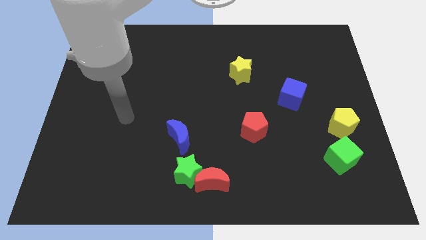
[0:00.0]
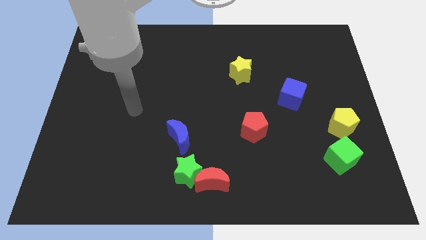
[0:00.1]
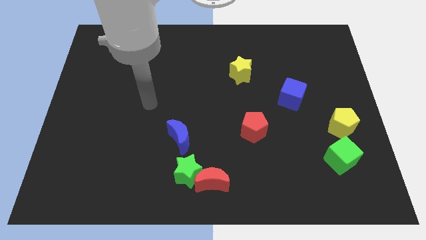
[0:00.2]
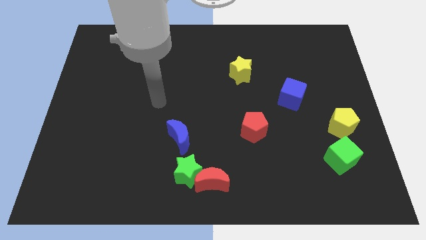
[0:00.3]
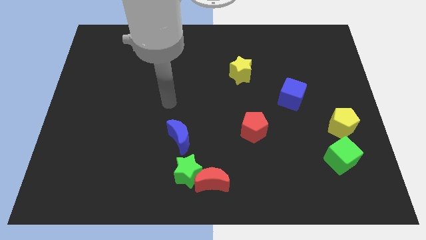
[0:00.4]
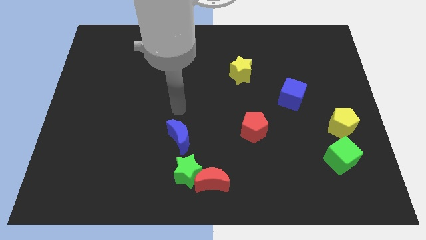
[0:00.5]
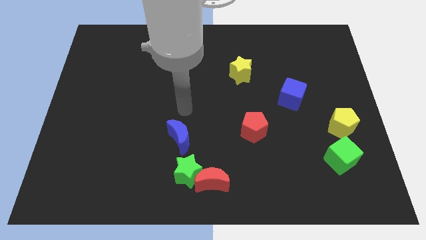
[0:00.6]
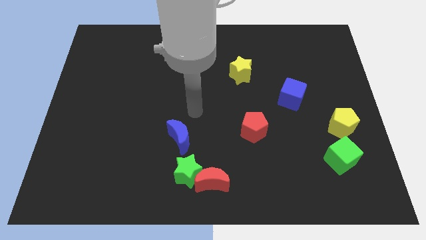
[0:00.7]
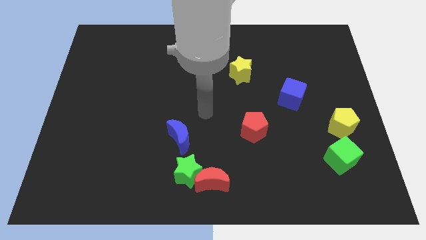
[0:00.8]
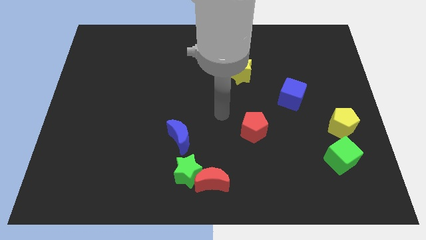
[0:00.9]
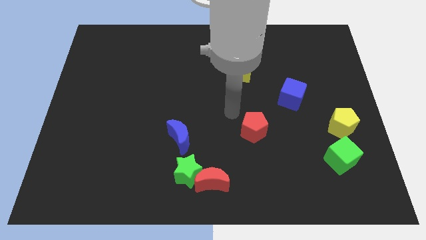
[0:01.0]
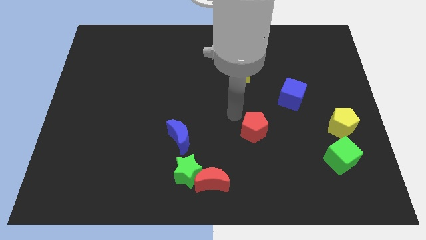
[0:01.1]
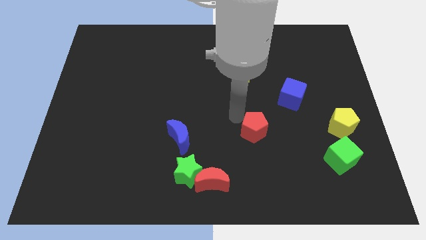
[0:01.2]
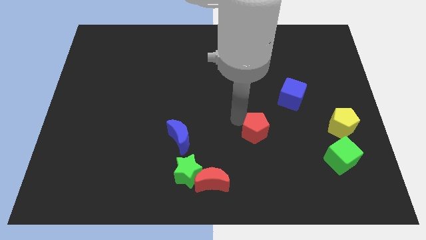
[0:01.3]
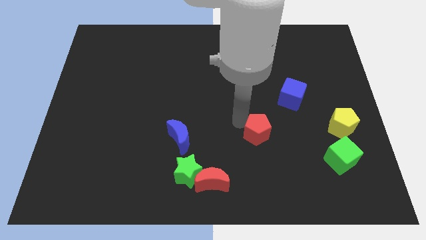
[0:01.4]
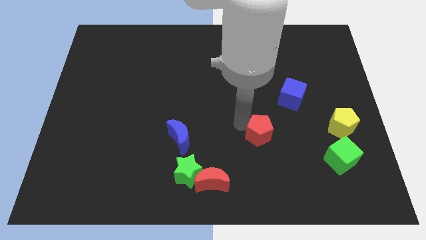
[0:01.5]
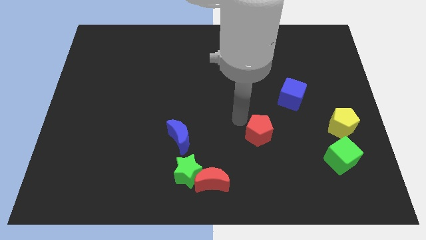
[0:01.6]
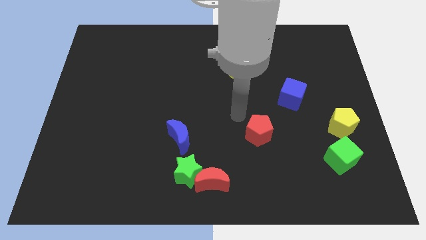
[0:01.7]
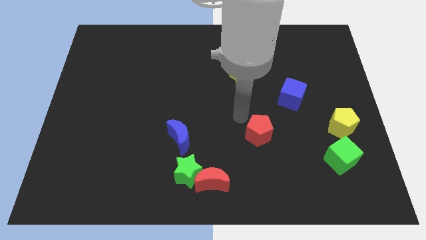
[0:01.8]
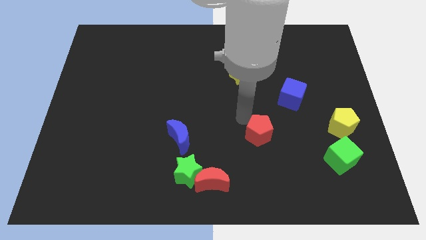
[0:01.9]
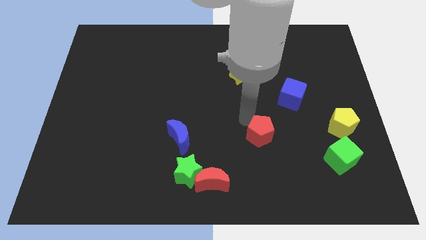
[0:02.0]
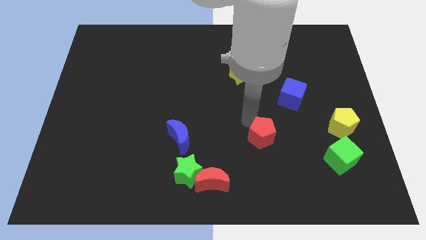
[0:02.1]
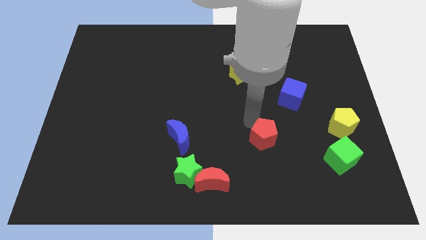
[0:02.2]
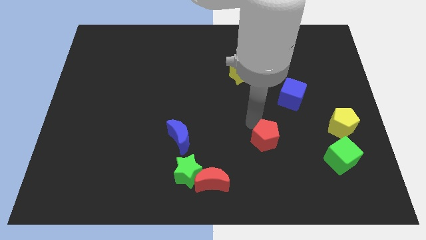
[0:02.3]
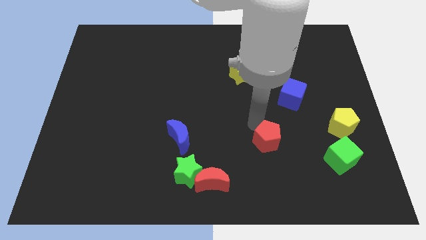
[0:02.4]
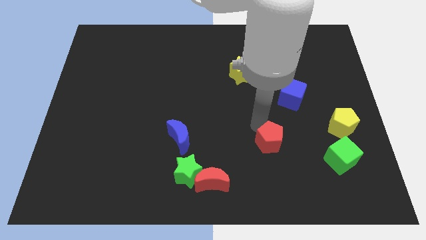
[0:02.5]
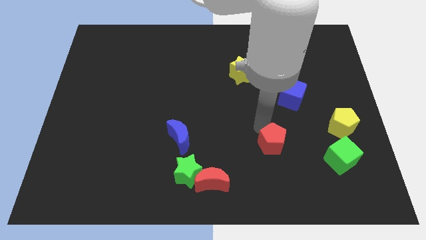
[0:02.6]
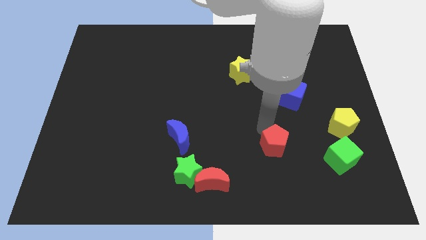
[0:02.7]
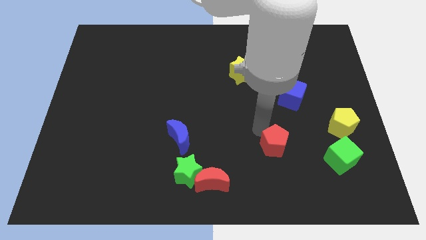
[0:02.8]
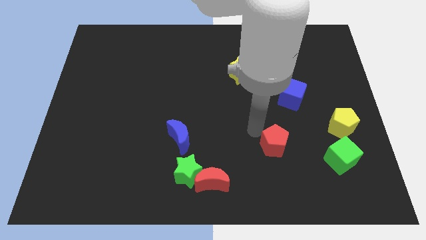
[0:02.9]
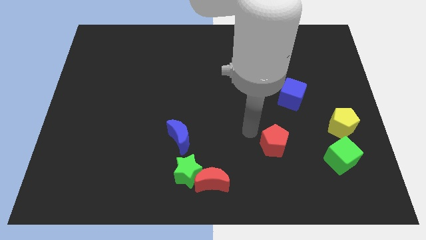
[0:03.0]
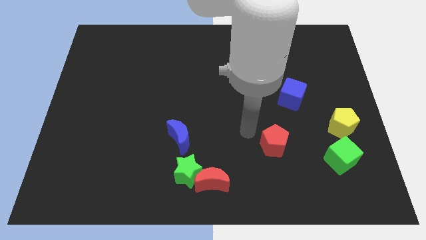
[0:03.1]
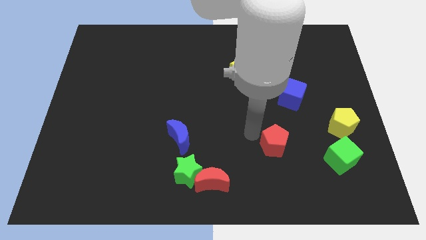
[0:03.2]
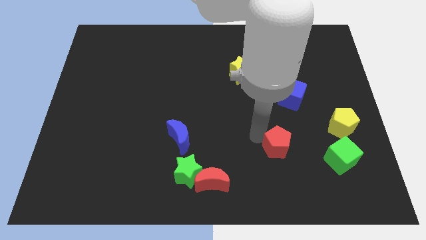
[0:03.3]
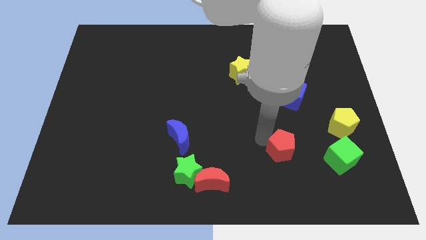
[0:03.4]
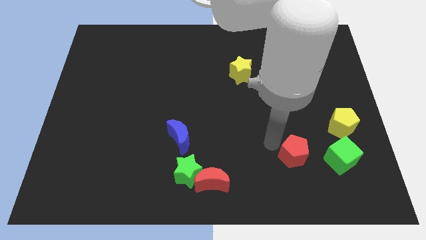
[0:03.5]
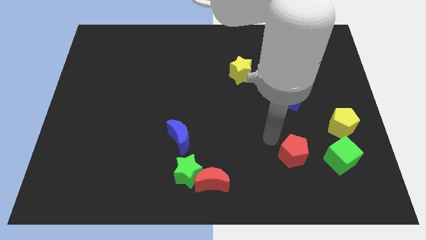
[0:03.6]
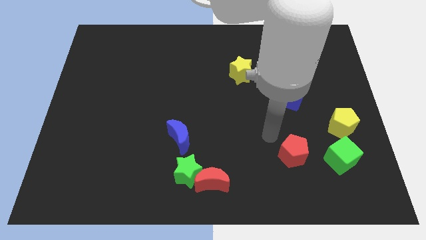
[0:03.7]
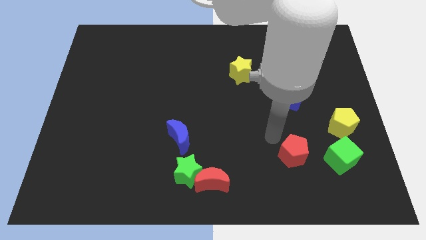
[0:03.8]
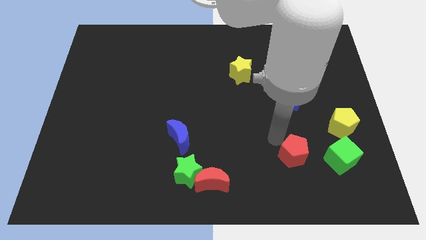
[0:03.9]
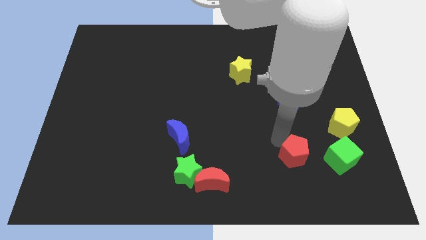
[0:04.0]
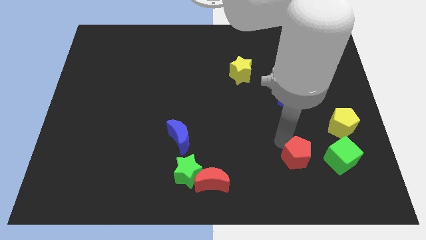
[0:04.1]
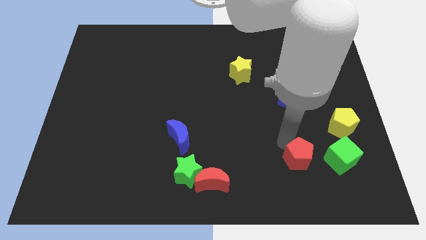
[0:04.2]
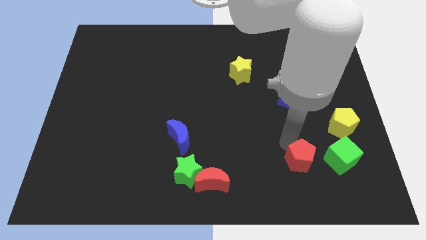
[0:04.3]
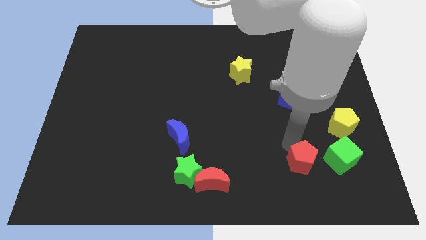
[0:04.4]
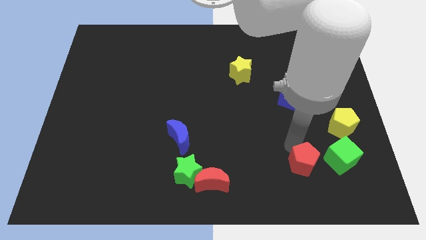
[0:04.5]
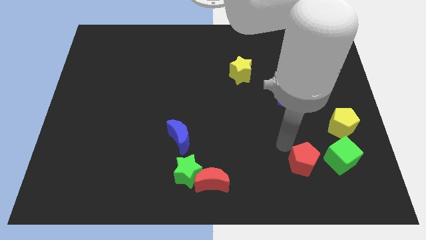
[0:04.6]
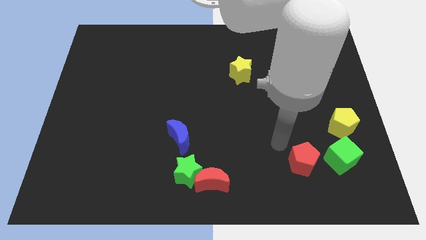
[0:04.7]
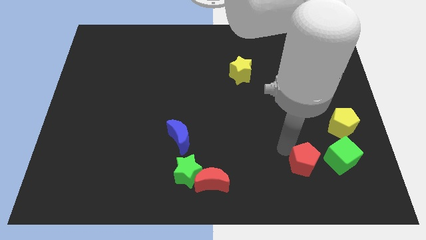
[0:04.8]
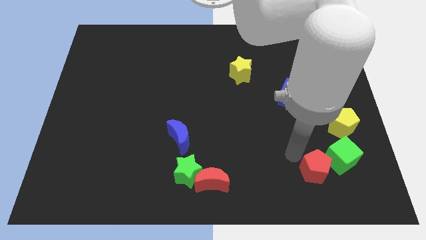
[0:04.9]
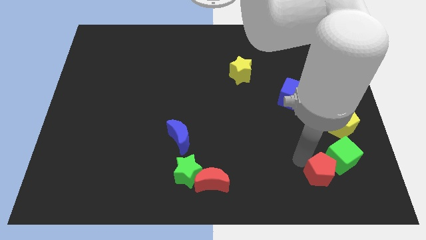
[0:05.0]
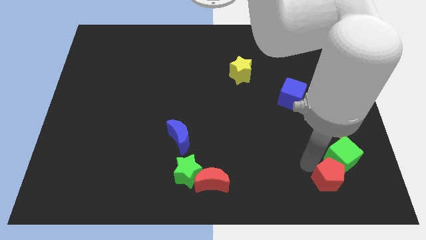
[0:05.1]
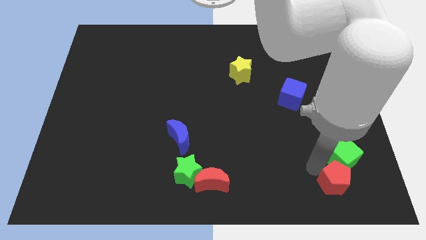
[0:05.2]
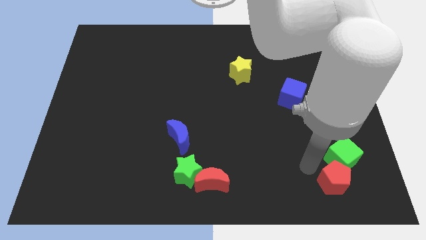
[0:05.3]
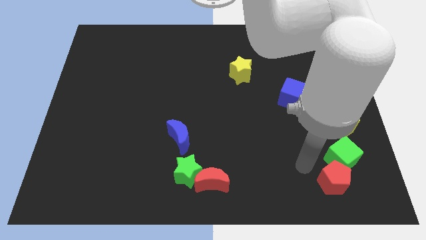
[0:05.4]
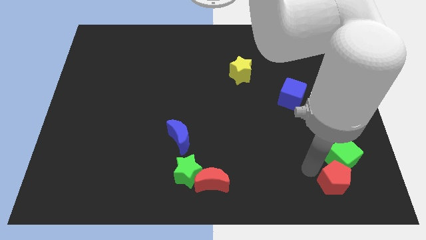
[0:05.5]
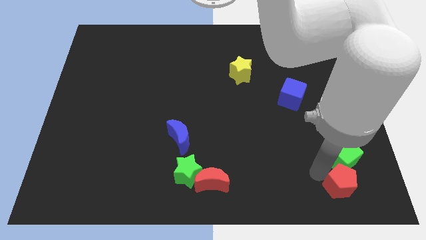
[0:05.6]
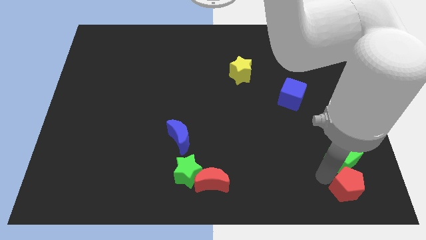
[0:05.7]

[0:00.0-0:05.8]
put the red pentagon to the lower right corner

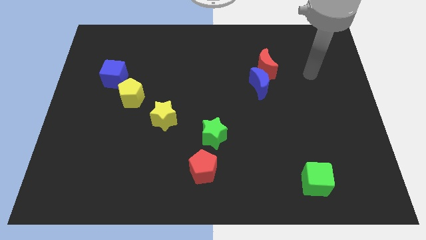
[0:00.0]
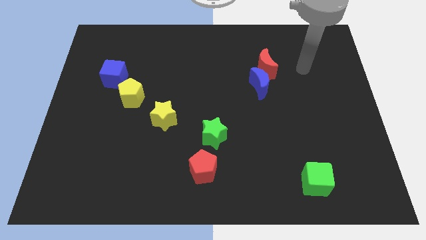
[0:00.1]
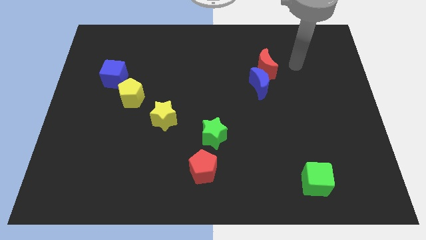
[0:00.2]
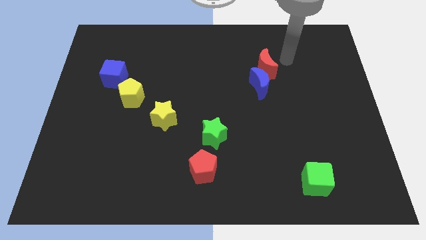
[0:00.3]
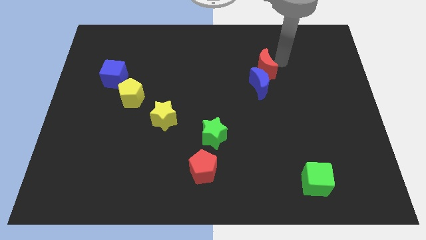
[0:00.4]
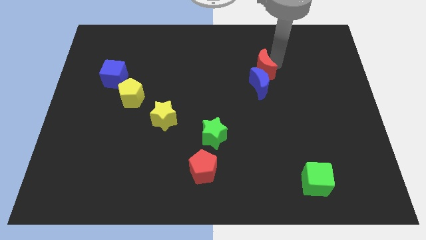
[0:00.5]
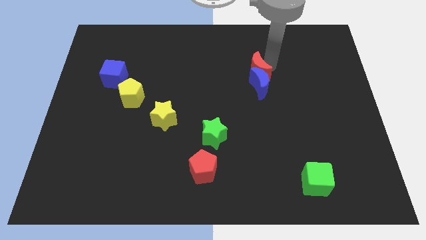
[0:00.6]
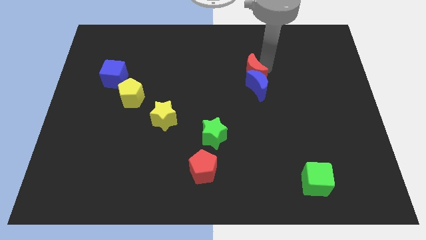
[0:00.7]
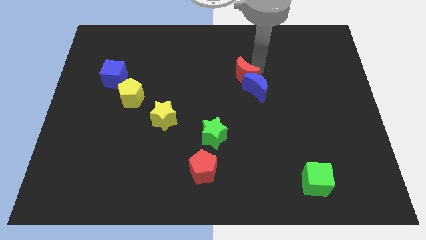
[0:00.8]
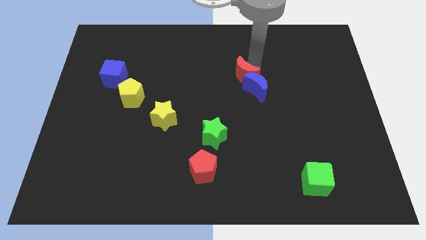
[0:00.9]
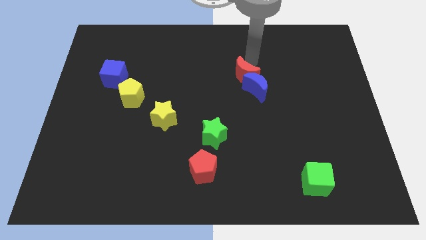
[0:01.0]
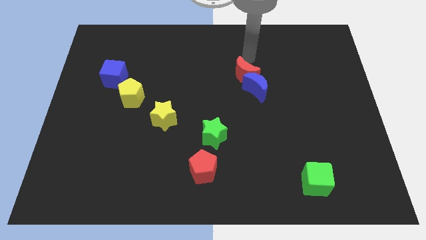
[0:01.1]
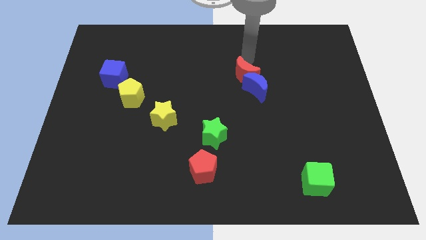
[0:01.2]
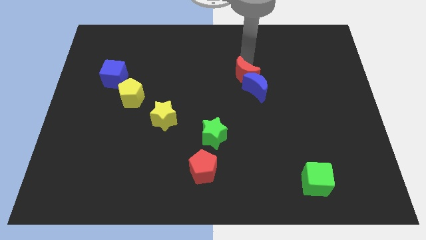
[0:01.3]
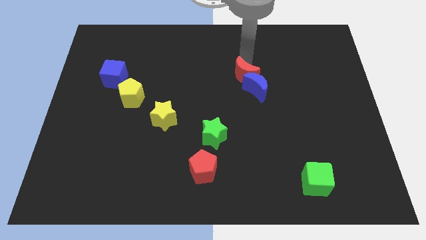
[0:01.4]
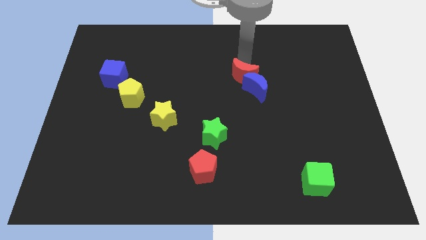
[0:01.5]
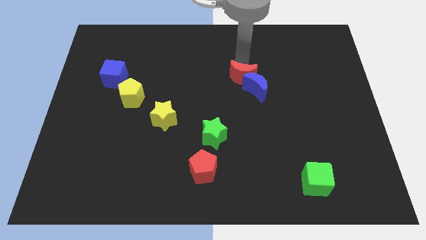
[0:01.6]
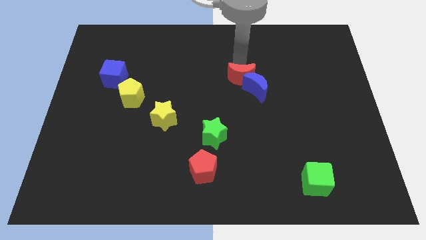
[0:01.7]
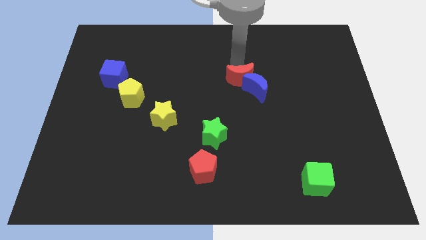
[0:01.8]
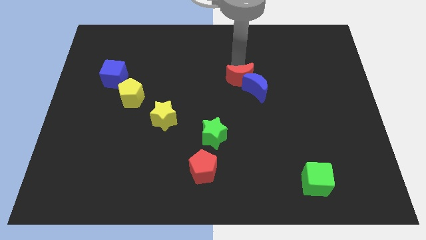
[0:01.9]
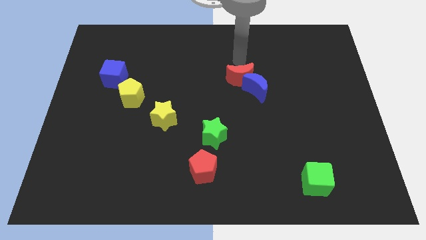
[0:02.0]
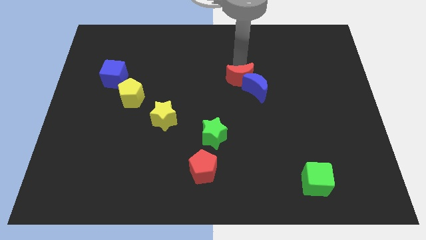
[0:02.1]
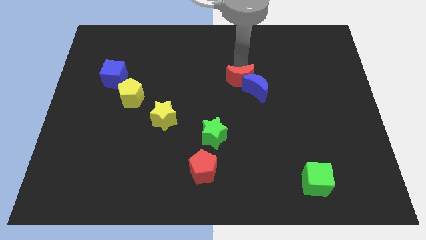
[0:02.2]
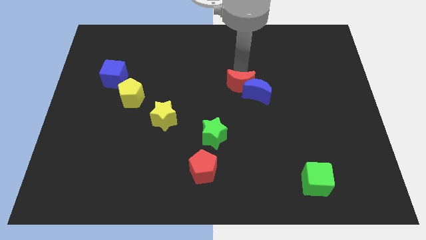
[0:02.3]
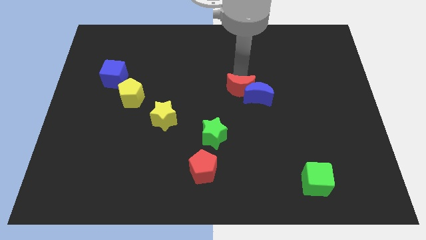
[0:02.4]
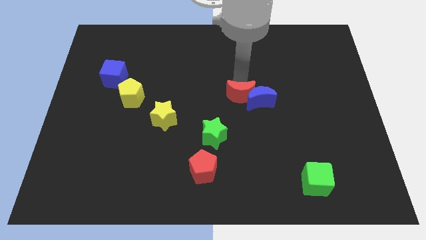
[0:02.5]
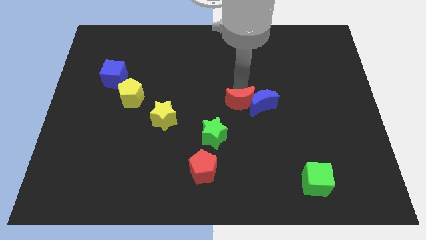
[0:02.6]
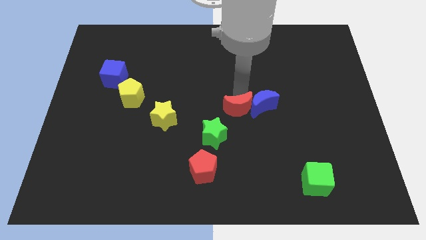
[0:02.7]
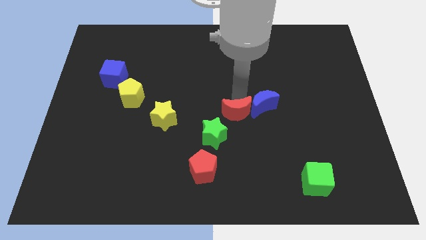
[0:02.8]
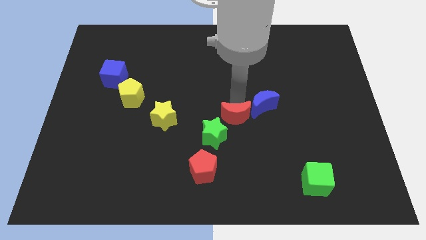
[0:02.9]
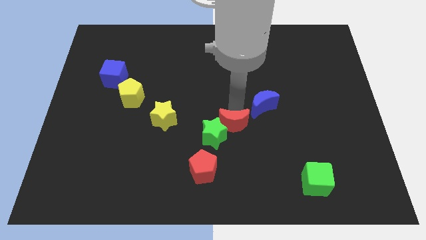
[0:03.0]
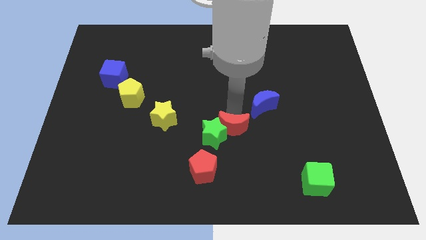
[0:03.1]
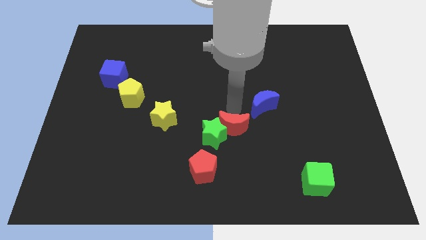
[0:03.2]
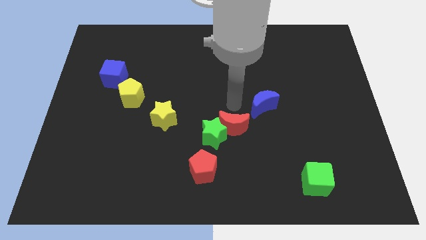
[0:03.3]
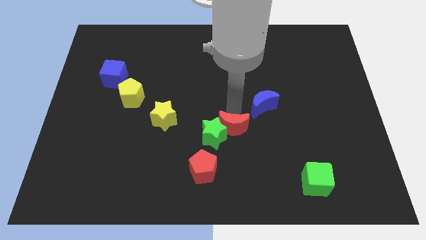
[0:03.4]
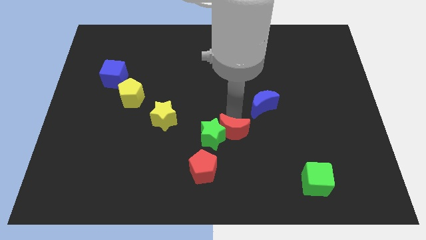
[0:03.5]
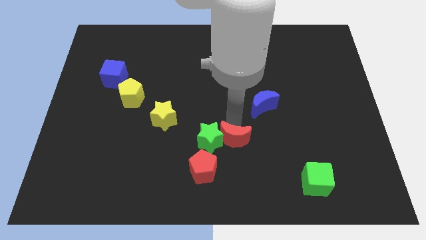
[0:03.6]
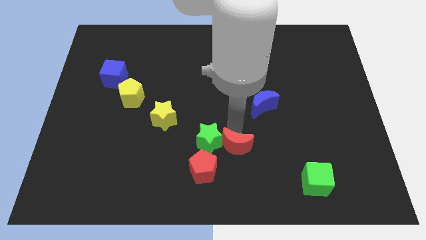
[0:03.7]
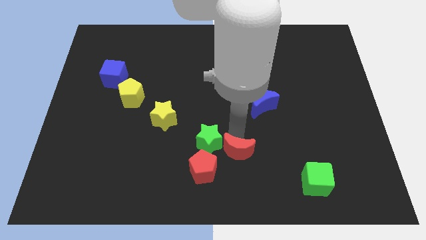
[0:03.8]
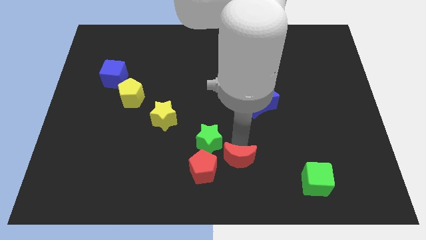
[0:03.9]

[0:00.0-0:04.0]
move the red moon to the bottom
